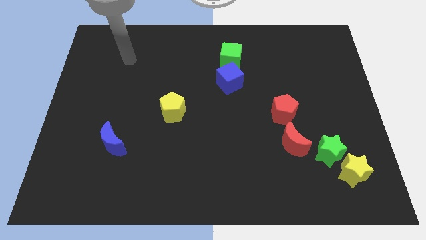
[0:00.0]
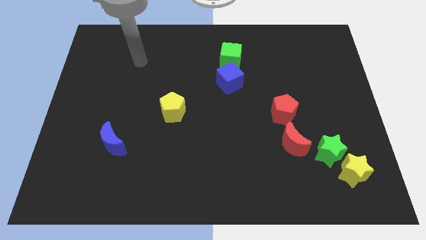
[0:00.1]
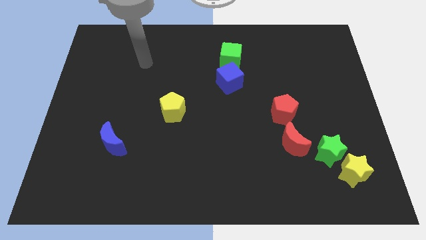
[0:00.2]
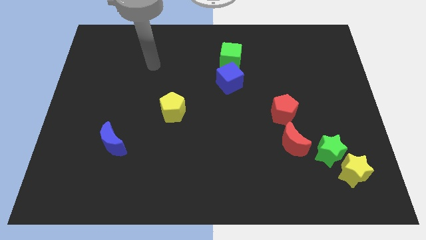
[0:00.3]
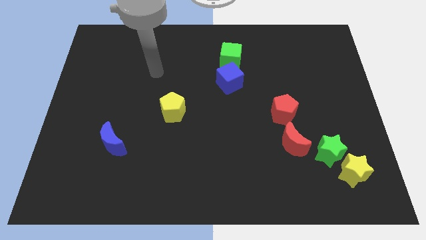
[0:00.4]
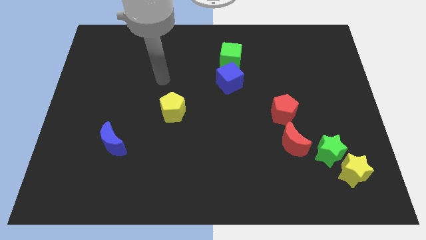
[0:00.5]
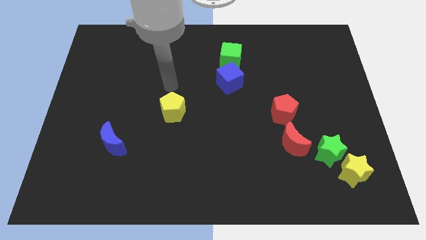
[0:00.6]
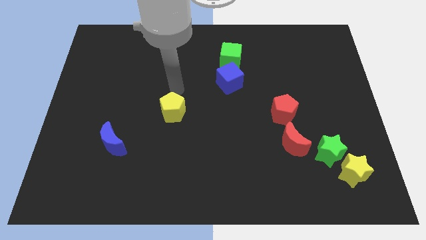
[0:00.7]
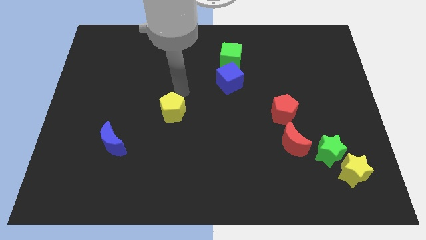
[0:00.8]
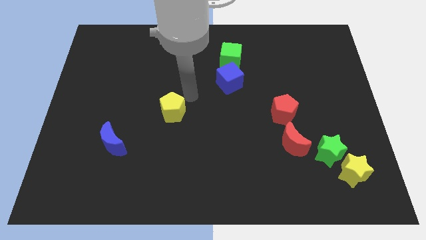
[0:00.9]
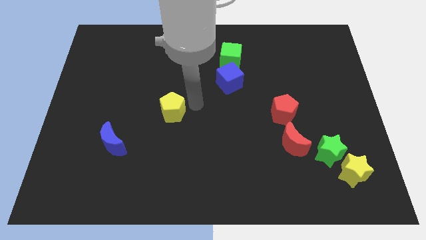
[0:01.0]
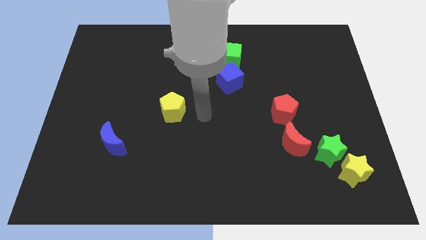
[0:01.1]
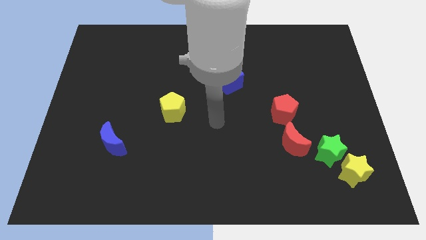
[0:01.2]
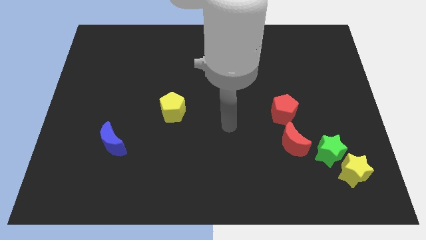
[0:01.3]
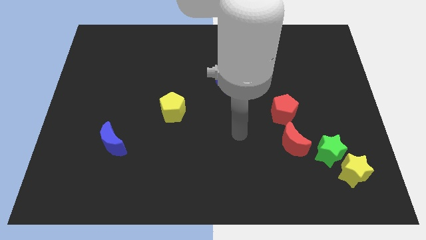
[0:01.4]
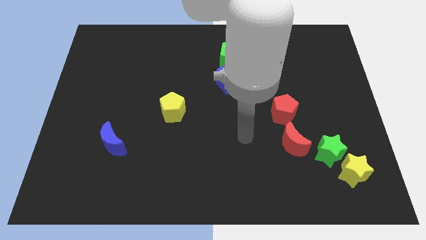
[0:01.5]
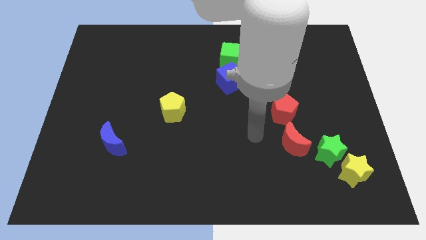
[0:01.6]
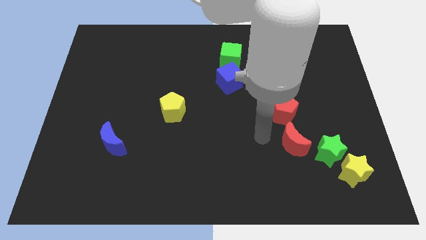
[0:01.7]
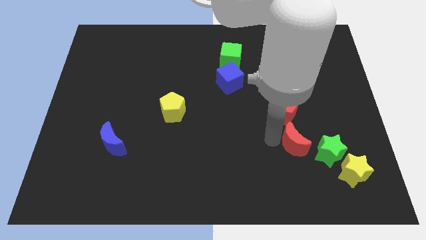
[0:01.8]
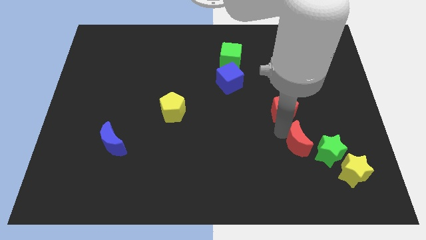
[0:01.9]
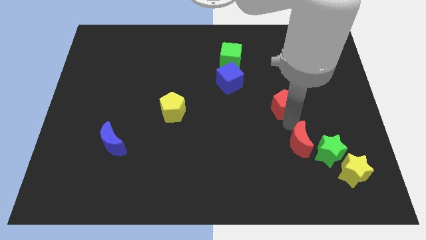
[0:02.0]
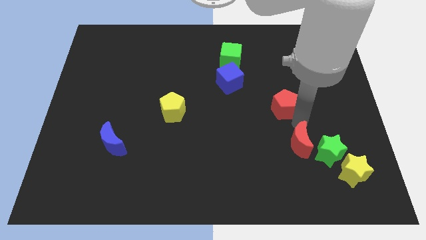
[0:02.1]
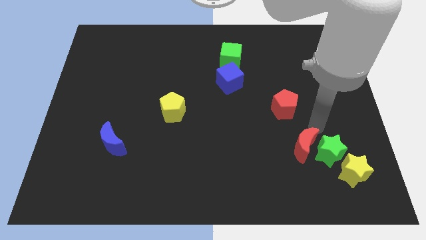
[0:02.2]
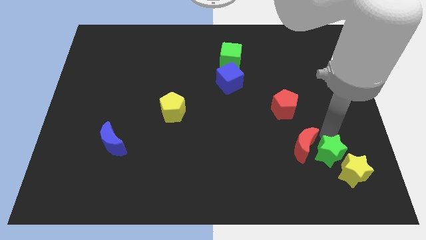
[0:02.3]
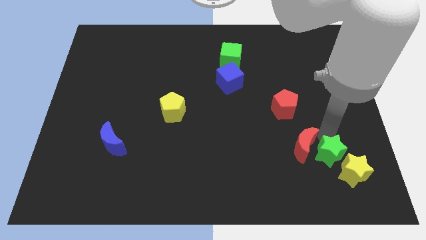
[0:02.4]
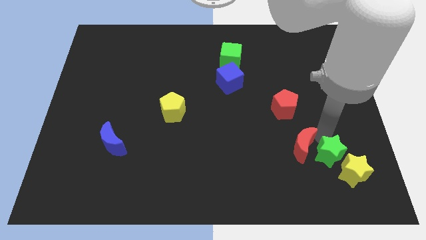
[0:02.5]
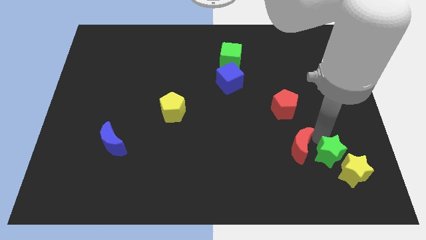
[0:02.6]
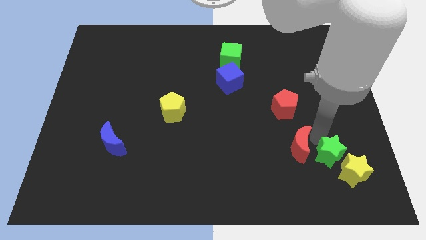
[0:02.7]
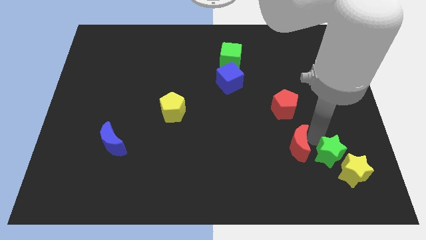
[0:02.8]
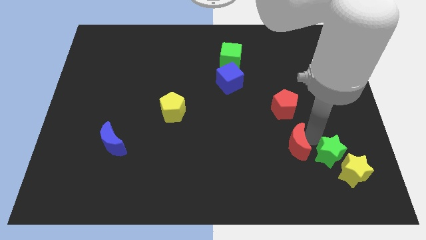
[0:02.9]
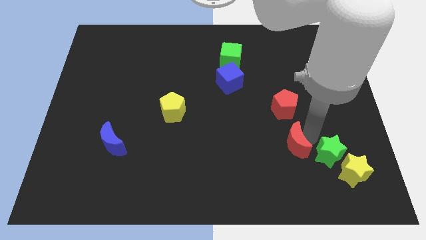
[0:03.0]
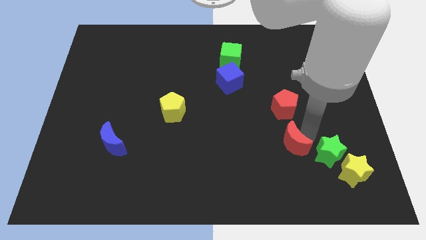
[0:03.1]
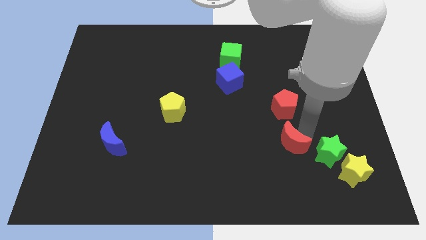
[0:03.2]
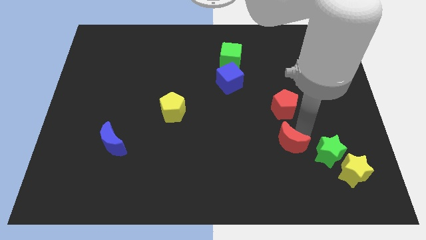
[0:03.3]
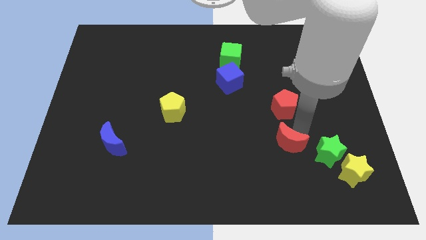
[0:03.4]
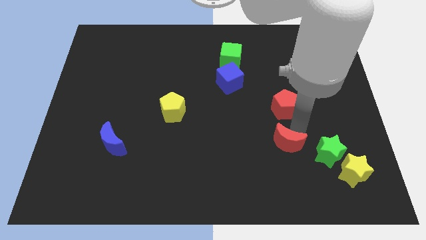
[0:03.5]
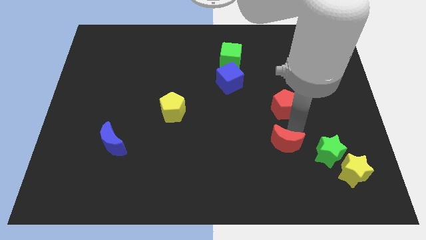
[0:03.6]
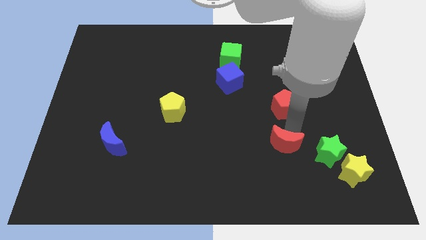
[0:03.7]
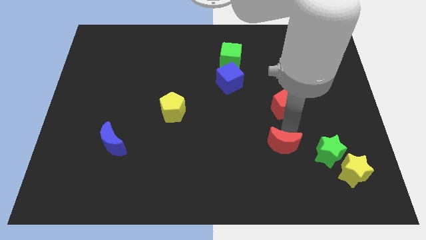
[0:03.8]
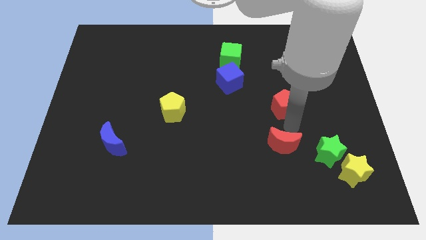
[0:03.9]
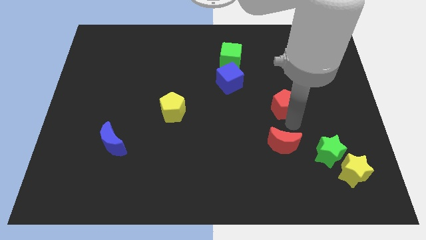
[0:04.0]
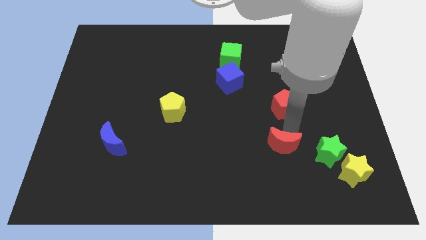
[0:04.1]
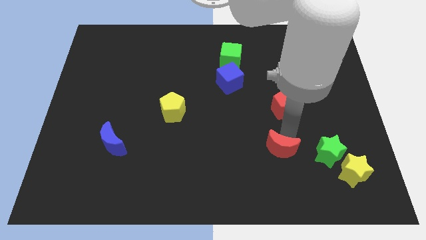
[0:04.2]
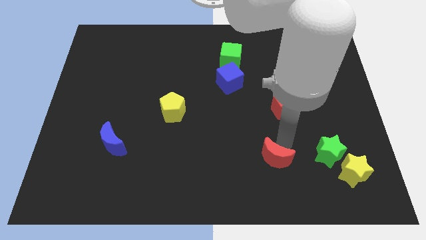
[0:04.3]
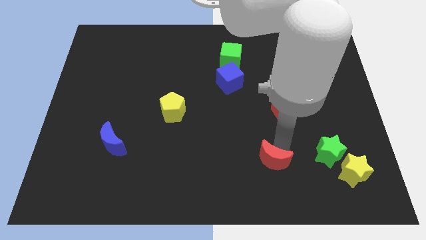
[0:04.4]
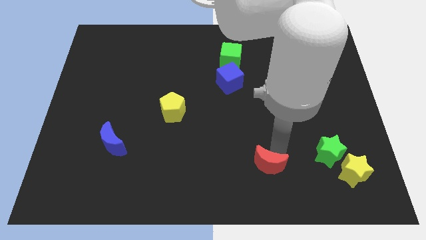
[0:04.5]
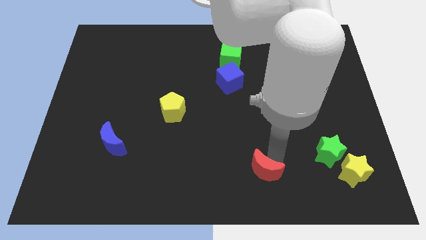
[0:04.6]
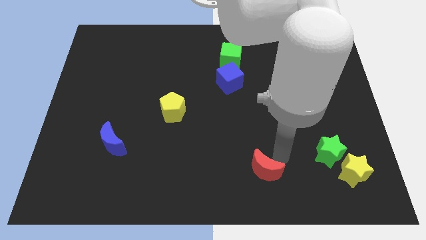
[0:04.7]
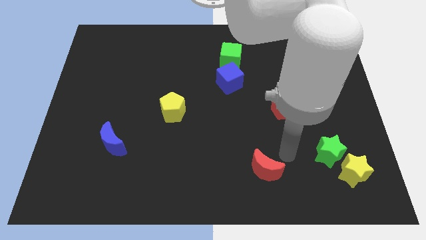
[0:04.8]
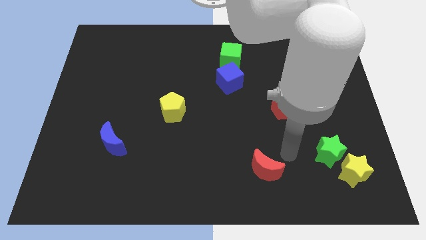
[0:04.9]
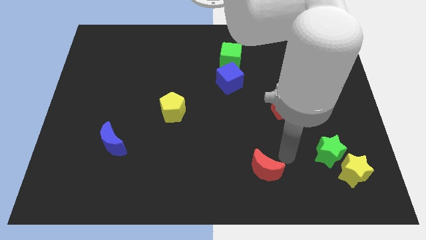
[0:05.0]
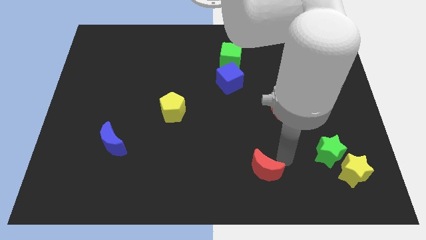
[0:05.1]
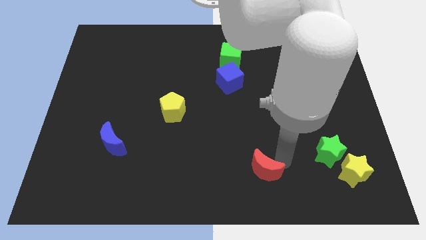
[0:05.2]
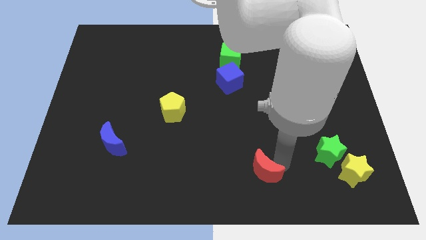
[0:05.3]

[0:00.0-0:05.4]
push the red moon to the bottom

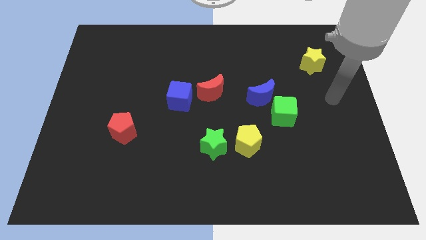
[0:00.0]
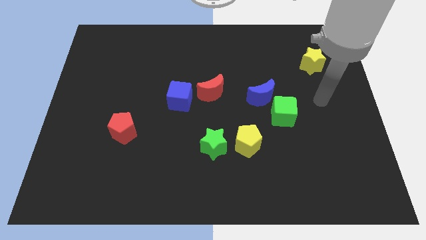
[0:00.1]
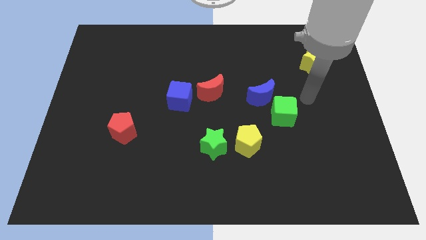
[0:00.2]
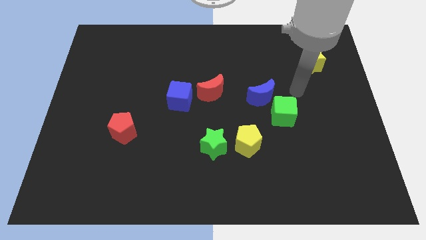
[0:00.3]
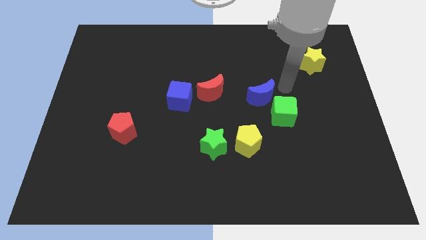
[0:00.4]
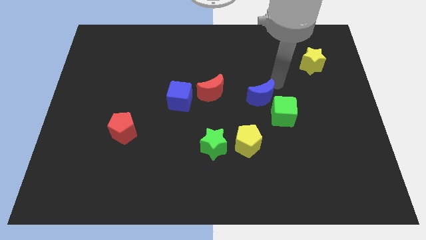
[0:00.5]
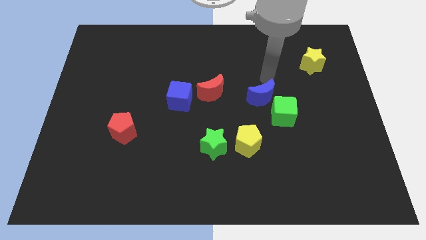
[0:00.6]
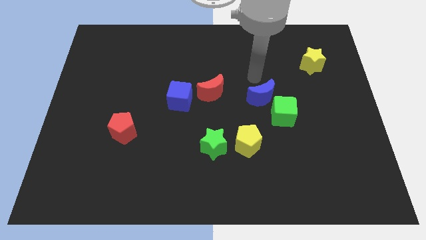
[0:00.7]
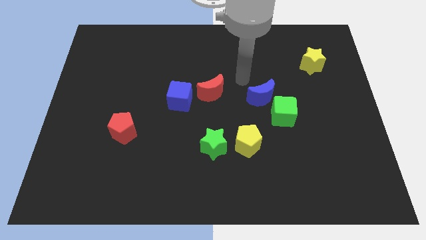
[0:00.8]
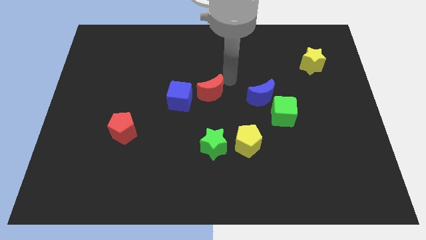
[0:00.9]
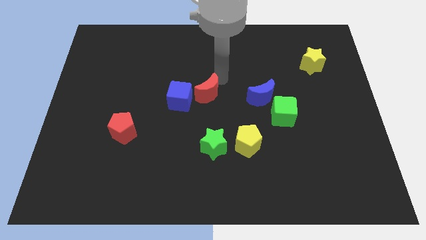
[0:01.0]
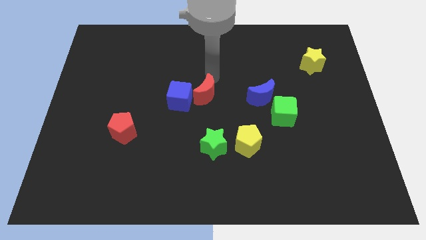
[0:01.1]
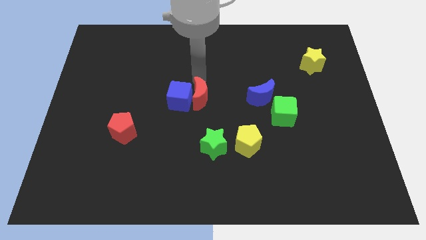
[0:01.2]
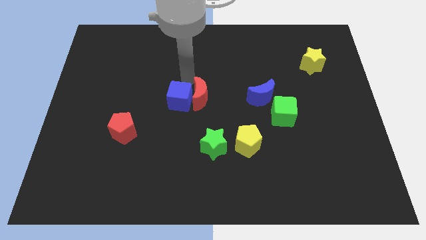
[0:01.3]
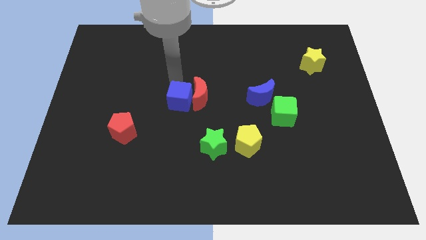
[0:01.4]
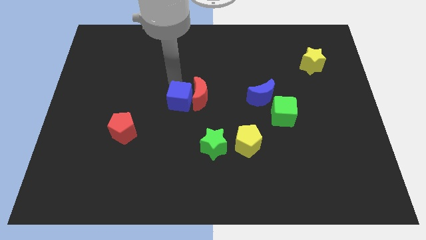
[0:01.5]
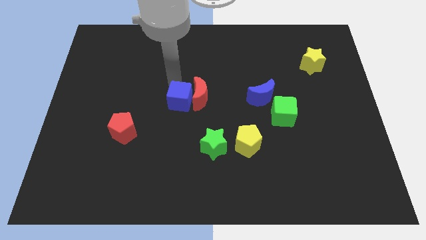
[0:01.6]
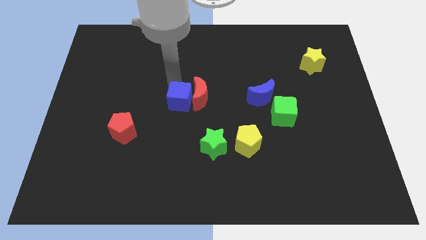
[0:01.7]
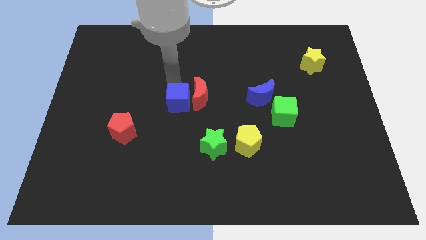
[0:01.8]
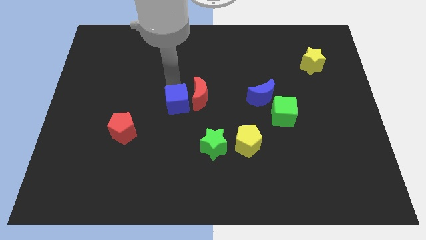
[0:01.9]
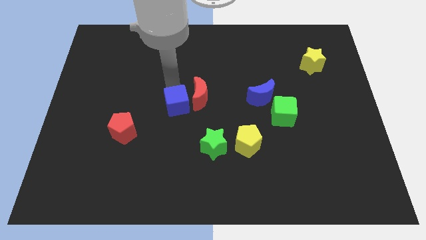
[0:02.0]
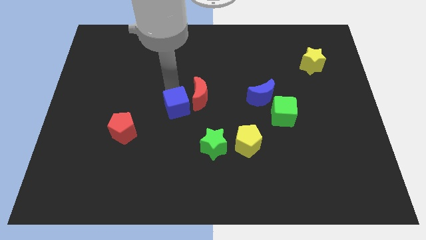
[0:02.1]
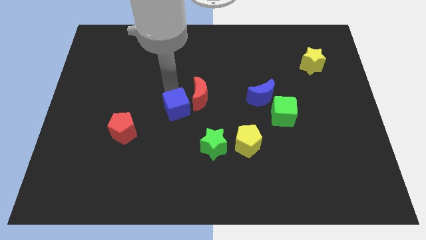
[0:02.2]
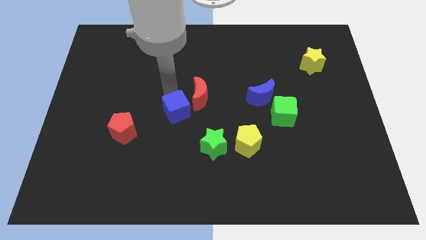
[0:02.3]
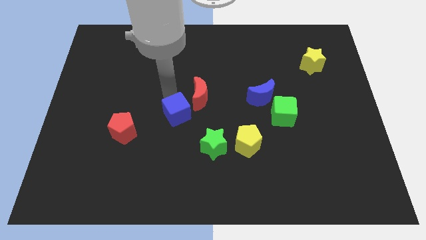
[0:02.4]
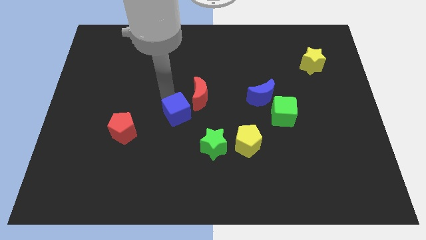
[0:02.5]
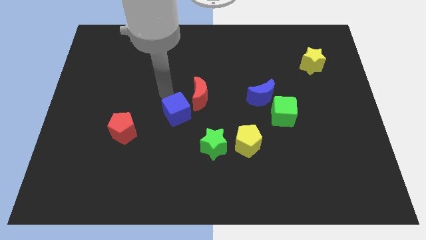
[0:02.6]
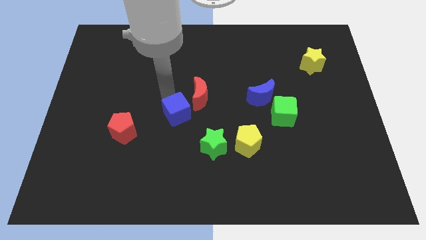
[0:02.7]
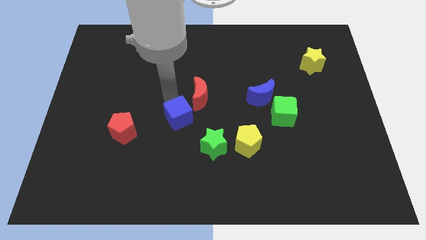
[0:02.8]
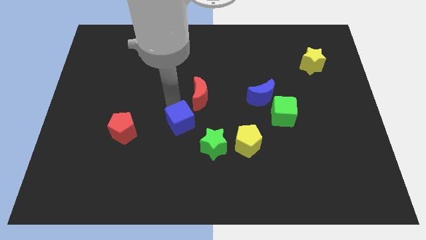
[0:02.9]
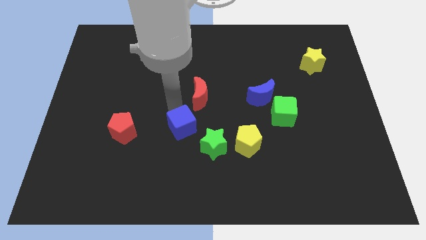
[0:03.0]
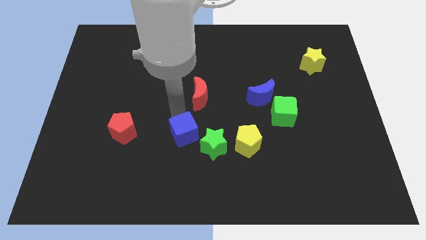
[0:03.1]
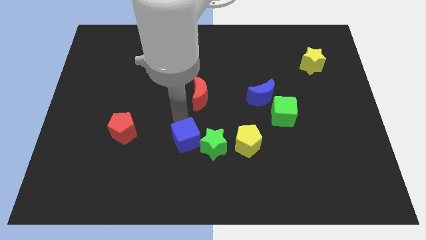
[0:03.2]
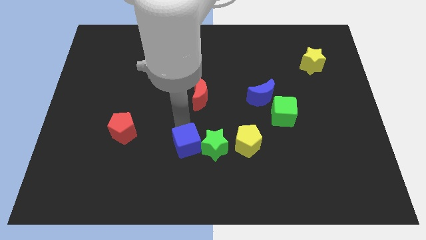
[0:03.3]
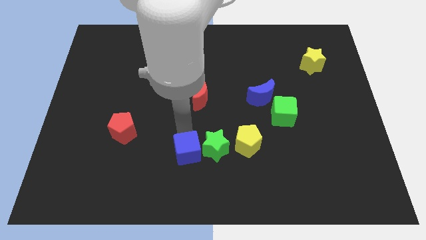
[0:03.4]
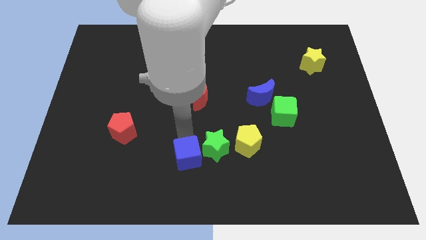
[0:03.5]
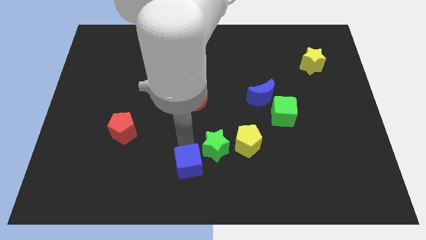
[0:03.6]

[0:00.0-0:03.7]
slide the blue cube to the bottom side
